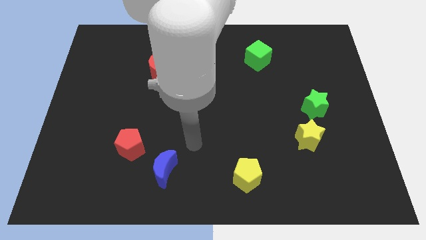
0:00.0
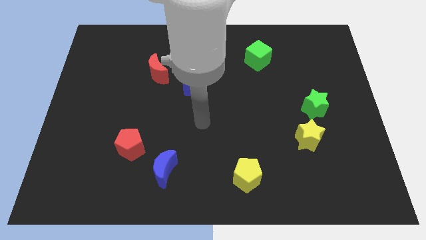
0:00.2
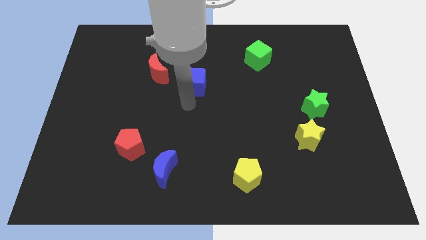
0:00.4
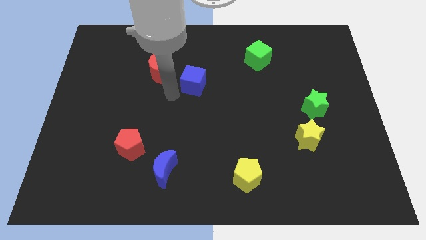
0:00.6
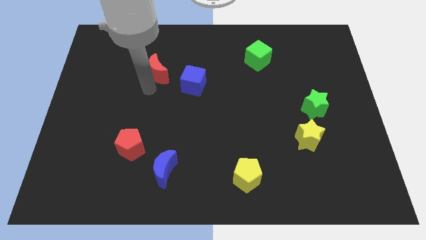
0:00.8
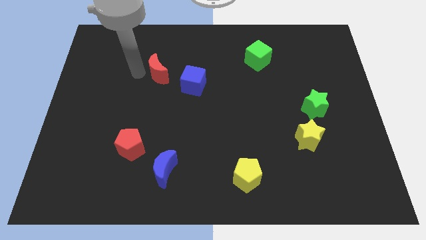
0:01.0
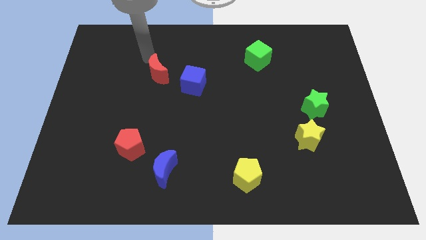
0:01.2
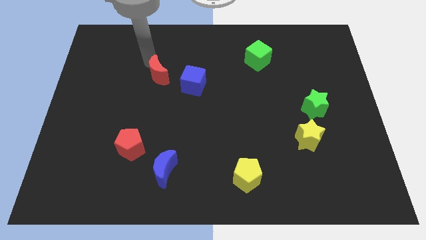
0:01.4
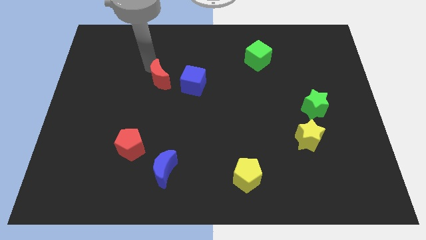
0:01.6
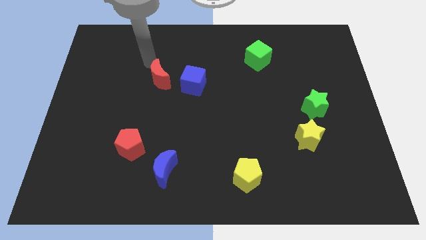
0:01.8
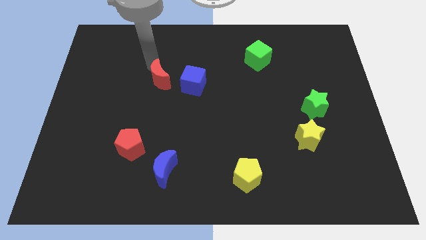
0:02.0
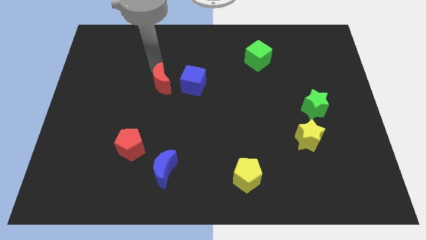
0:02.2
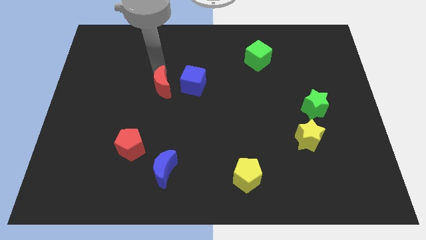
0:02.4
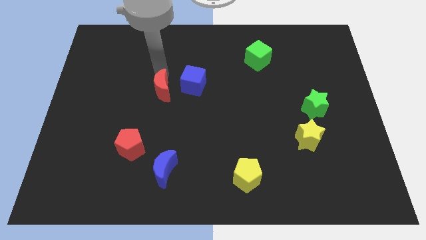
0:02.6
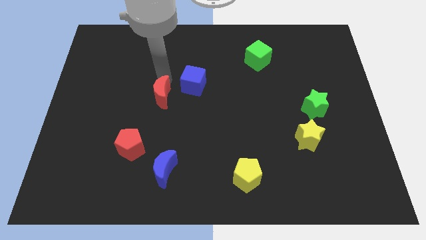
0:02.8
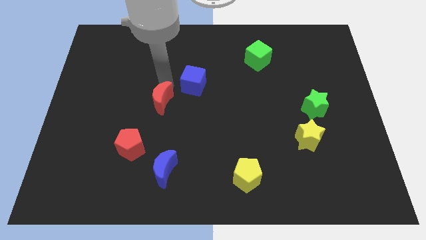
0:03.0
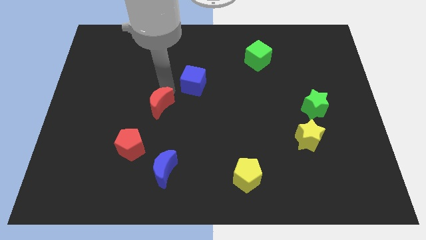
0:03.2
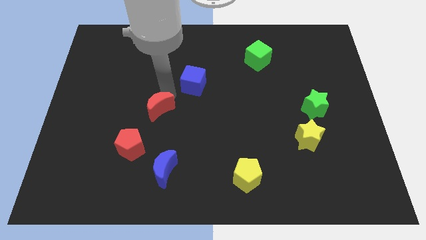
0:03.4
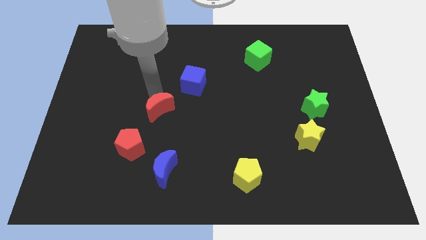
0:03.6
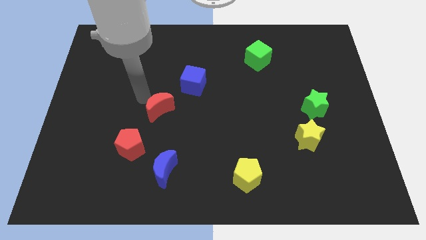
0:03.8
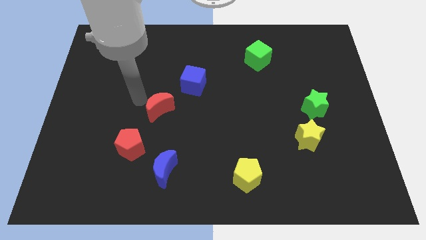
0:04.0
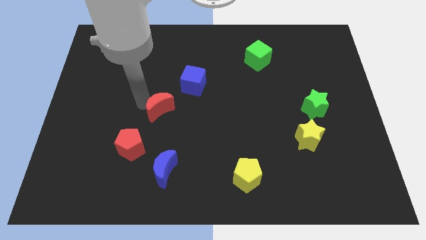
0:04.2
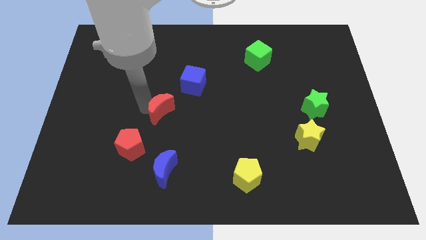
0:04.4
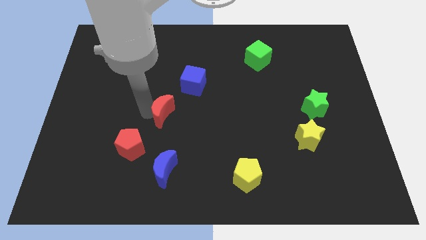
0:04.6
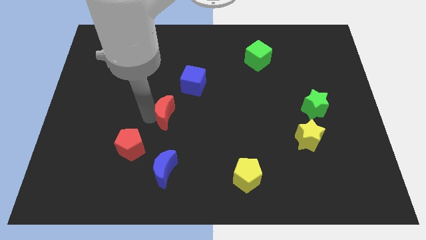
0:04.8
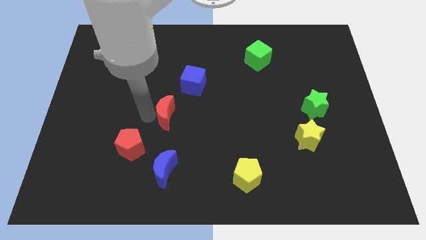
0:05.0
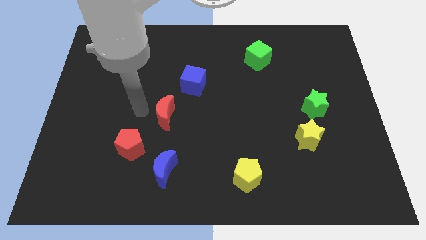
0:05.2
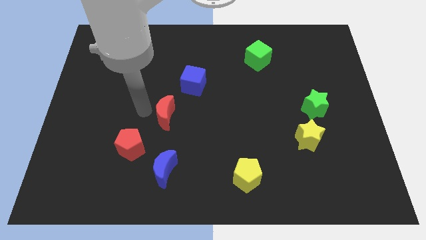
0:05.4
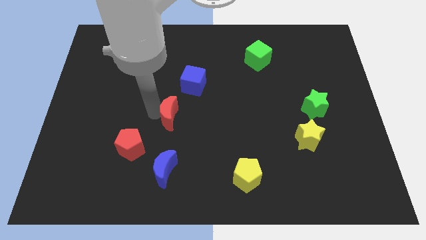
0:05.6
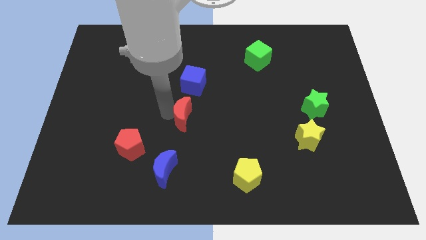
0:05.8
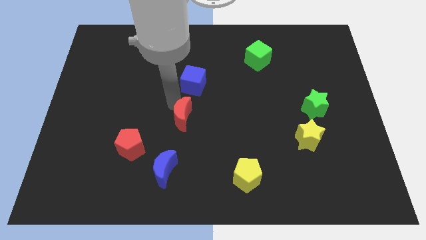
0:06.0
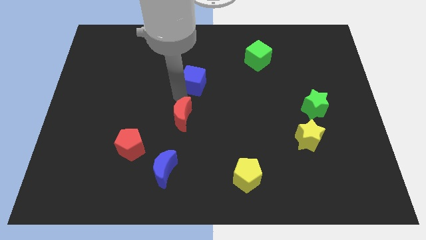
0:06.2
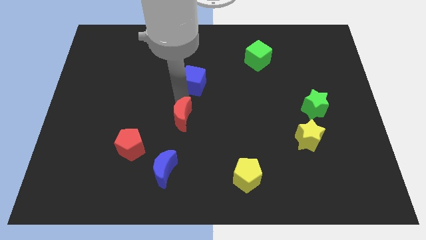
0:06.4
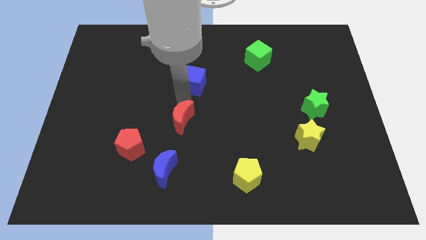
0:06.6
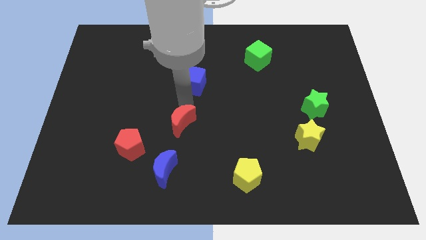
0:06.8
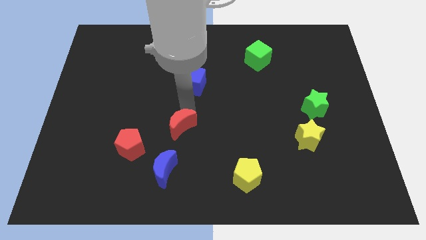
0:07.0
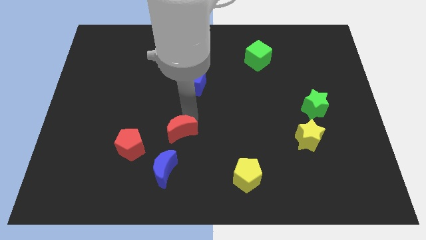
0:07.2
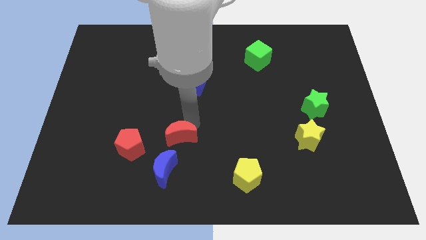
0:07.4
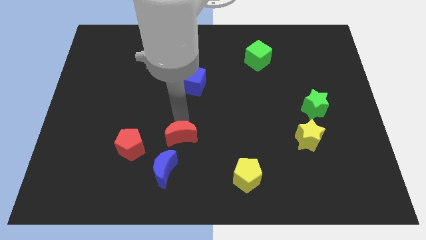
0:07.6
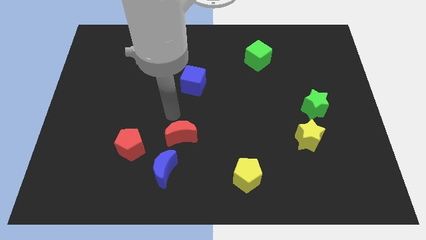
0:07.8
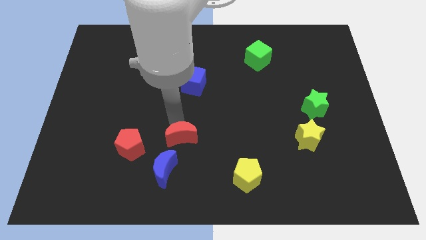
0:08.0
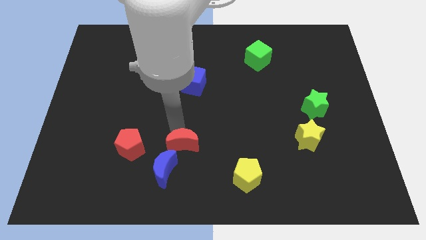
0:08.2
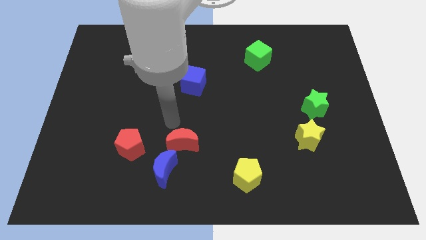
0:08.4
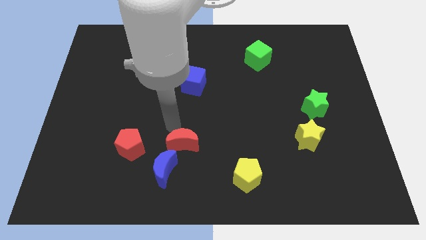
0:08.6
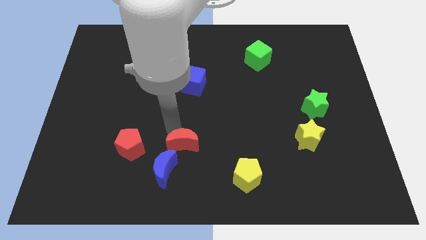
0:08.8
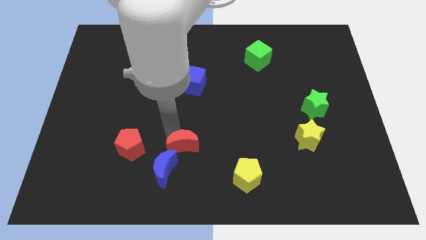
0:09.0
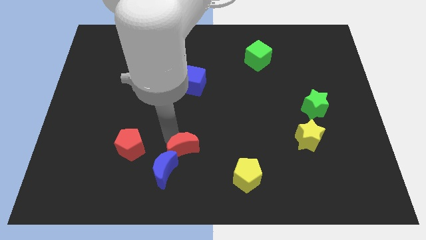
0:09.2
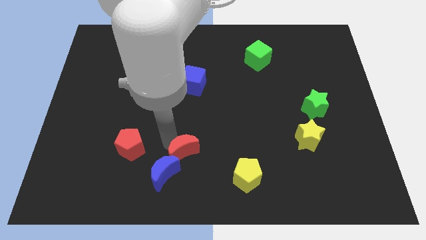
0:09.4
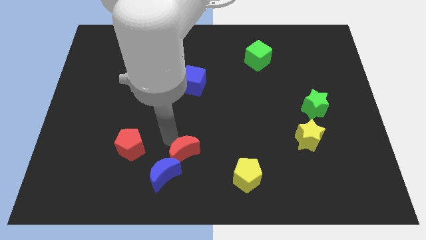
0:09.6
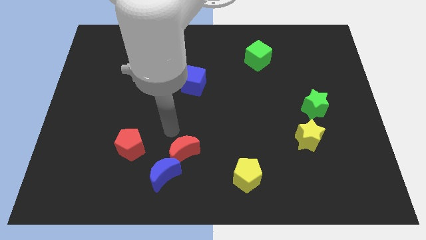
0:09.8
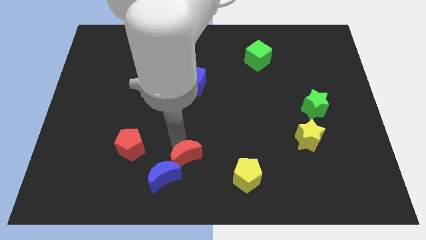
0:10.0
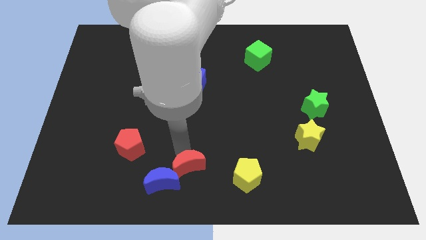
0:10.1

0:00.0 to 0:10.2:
put the red moon to the bottom side

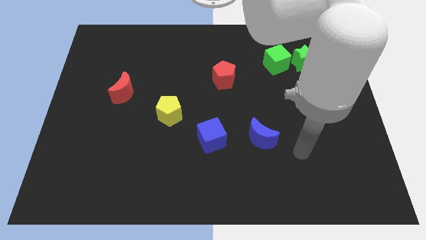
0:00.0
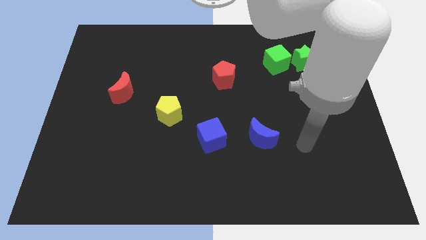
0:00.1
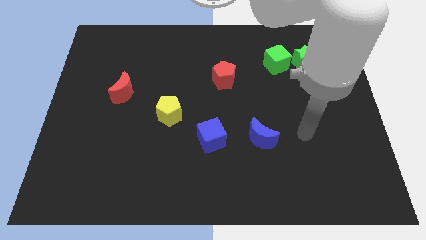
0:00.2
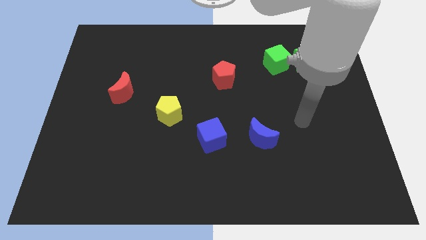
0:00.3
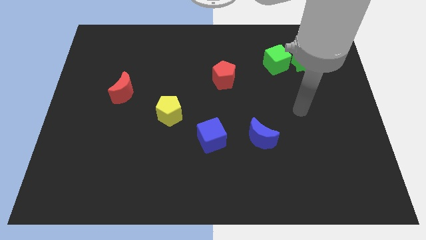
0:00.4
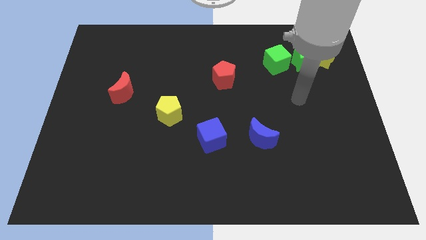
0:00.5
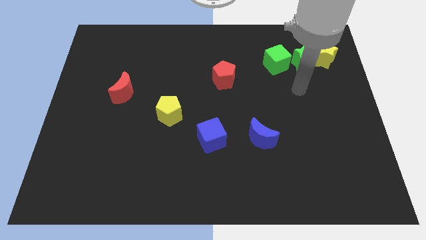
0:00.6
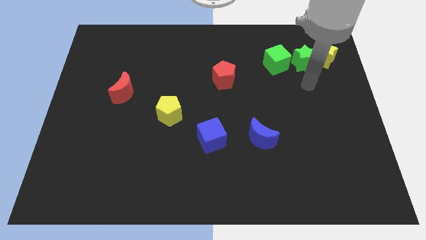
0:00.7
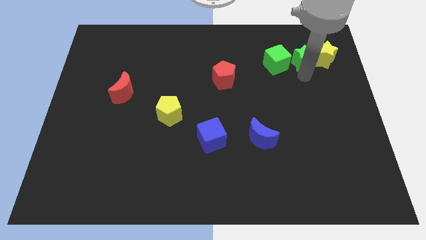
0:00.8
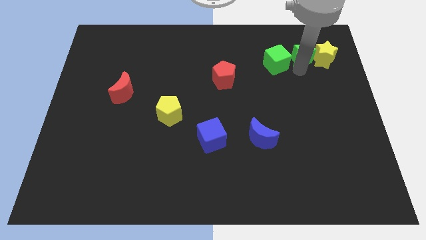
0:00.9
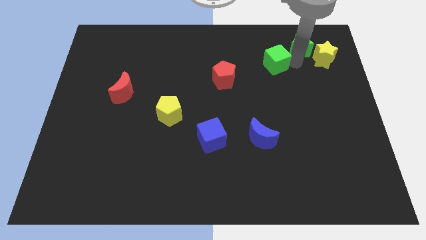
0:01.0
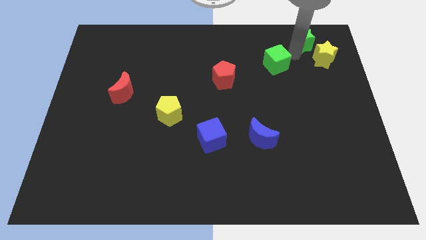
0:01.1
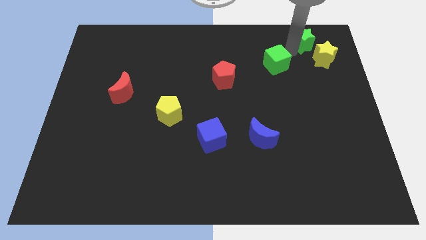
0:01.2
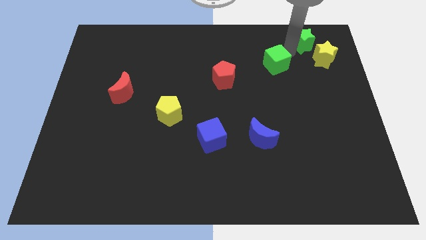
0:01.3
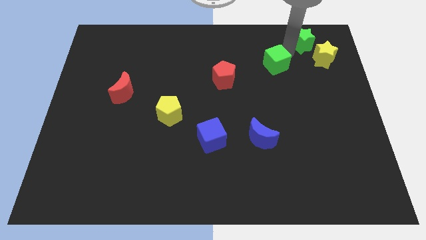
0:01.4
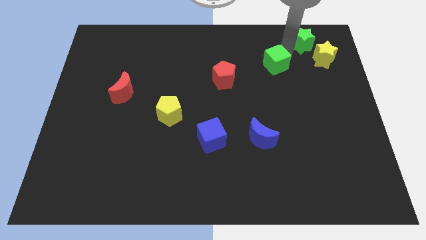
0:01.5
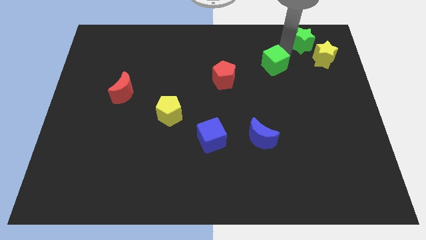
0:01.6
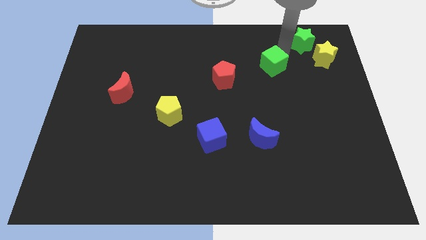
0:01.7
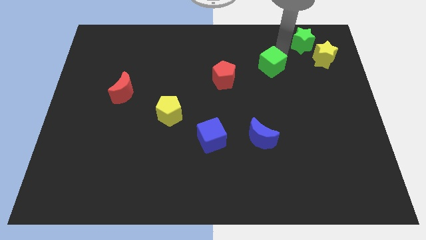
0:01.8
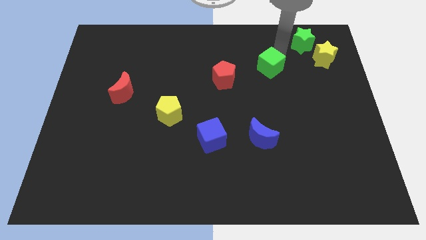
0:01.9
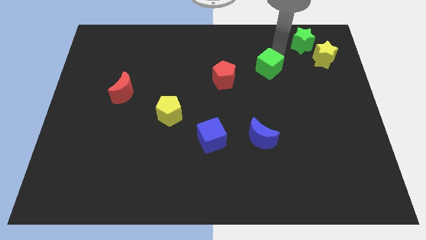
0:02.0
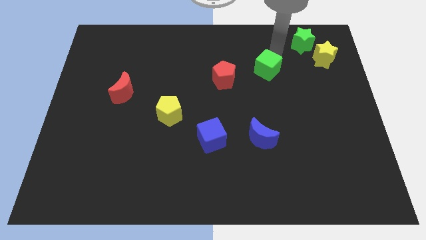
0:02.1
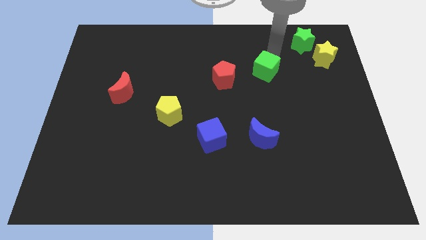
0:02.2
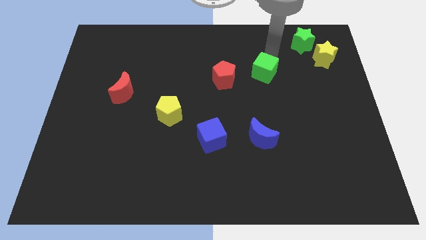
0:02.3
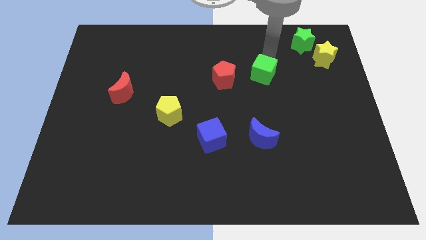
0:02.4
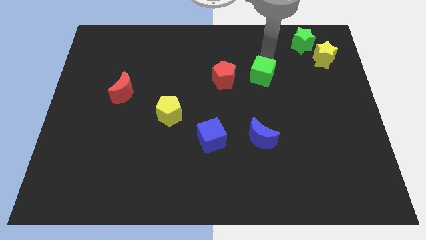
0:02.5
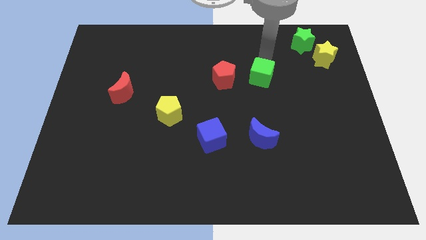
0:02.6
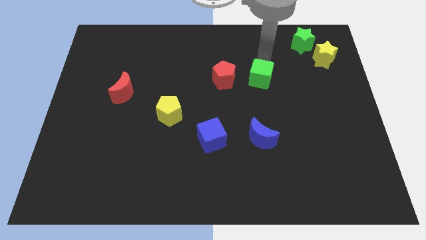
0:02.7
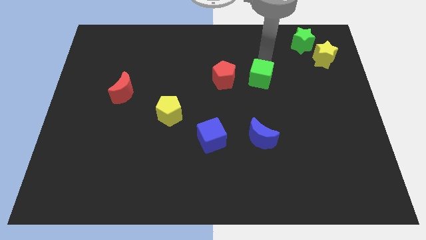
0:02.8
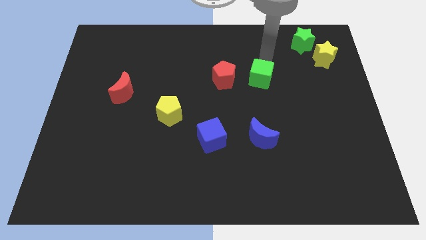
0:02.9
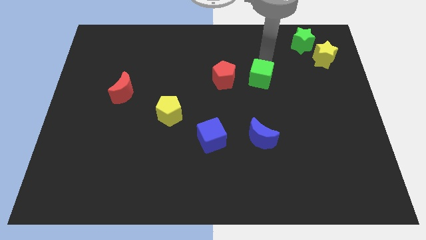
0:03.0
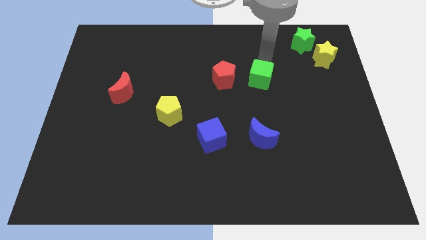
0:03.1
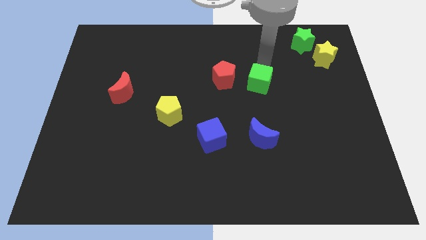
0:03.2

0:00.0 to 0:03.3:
slide the green cube to the middle
